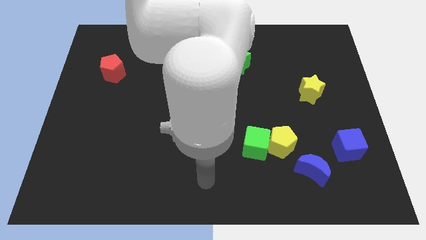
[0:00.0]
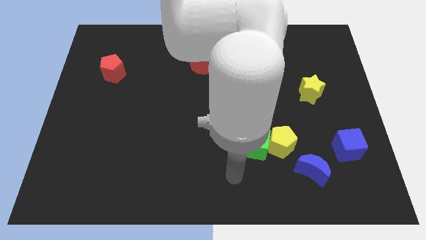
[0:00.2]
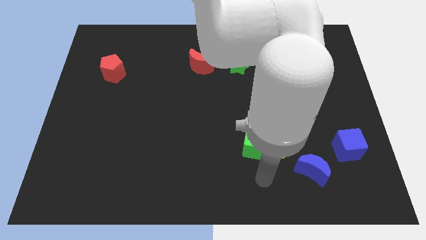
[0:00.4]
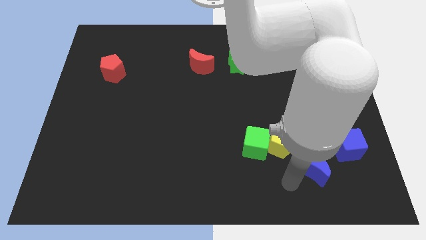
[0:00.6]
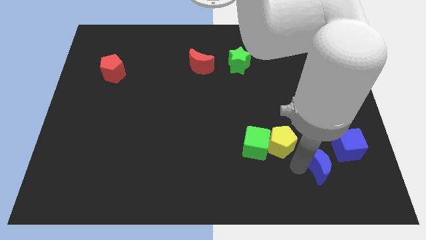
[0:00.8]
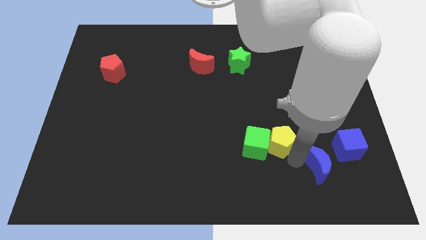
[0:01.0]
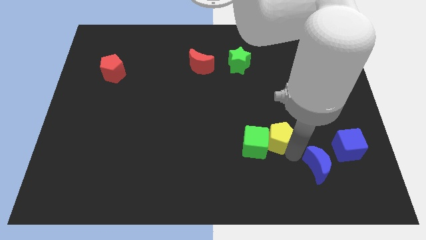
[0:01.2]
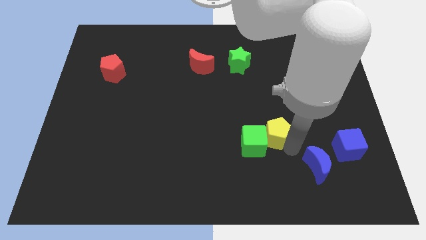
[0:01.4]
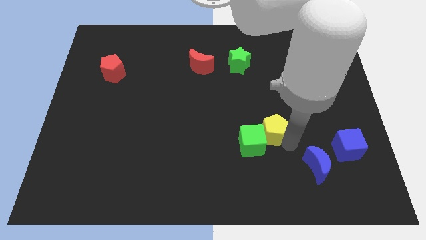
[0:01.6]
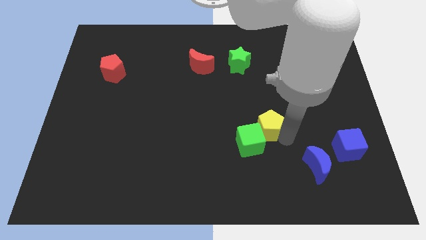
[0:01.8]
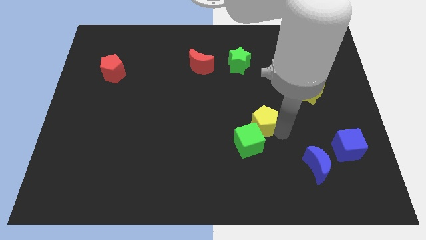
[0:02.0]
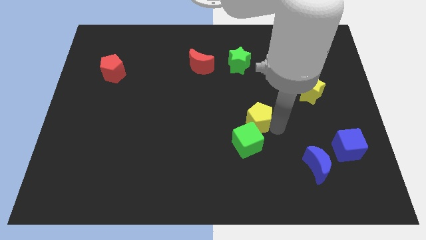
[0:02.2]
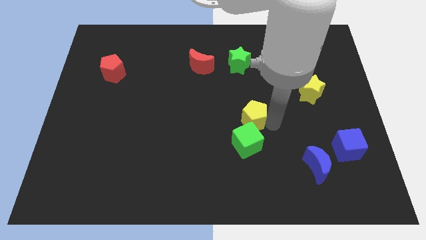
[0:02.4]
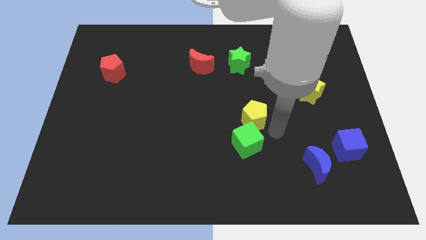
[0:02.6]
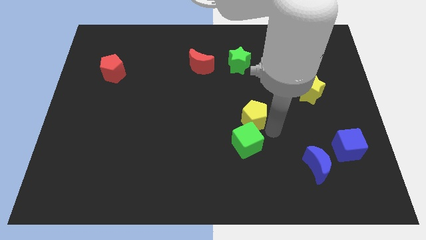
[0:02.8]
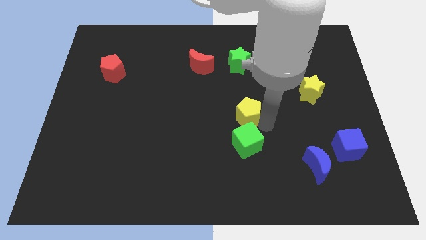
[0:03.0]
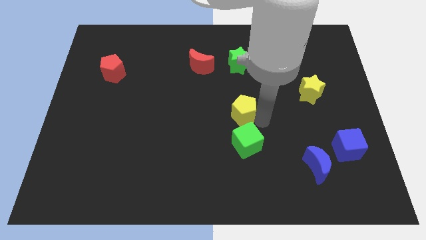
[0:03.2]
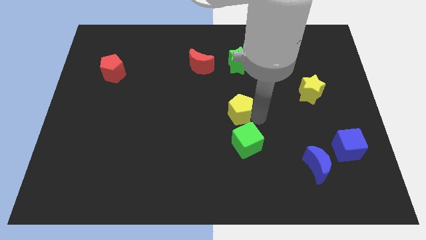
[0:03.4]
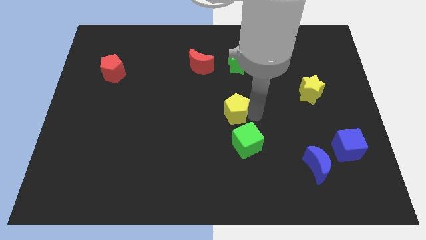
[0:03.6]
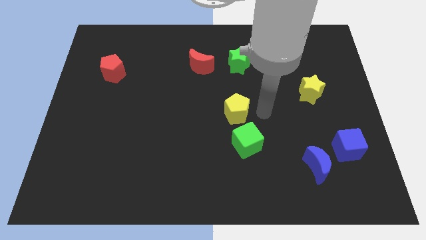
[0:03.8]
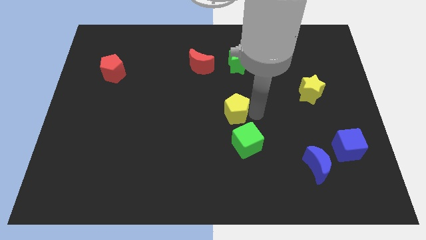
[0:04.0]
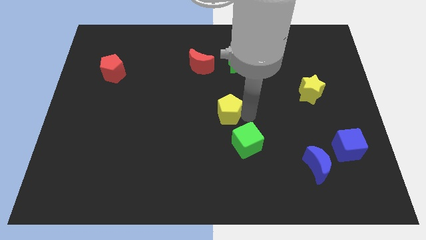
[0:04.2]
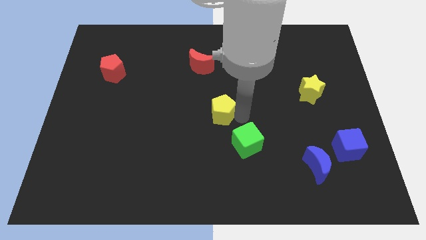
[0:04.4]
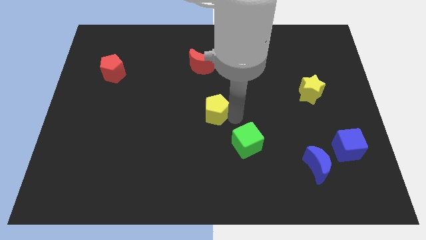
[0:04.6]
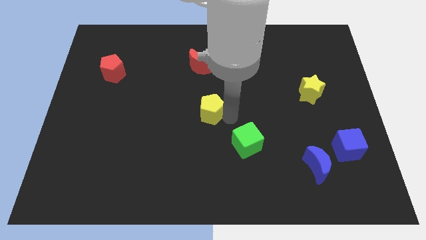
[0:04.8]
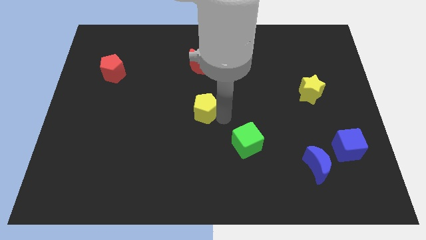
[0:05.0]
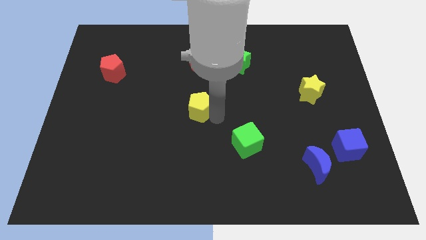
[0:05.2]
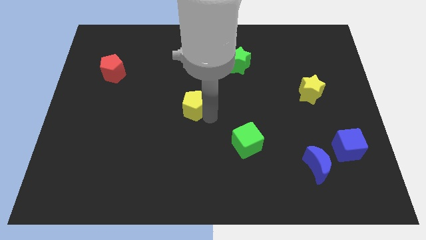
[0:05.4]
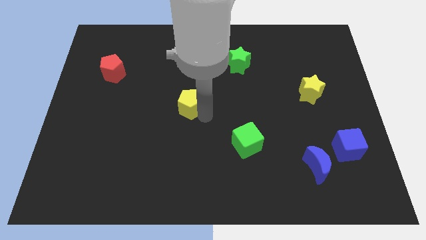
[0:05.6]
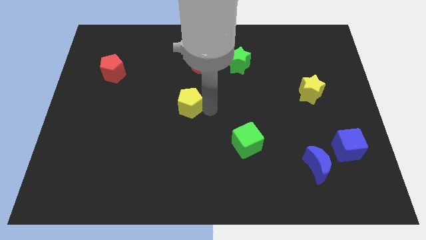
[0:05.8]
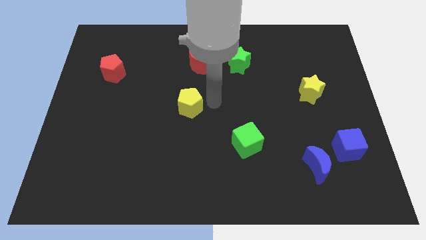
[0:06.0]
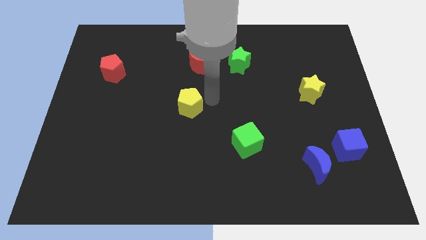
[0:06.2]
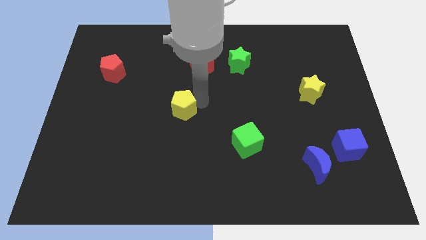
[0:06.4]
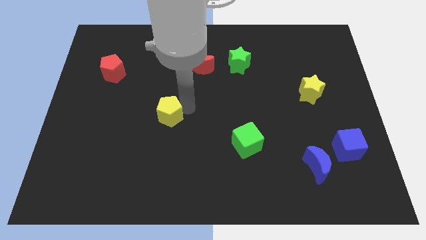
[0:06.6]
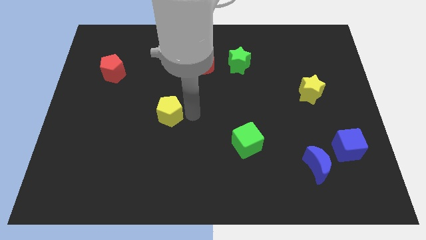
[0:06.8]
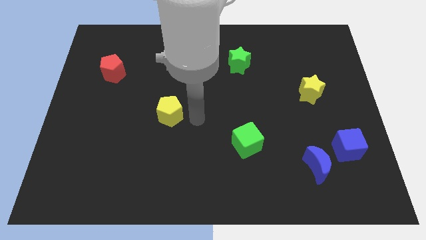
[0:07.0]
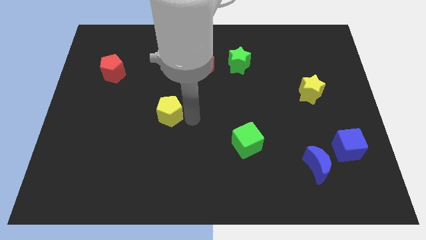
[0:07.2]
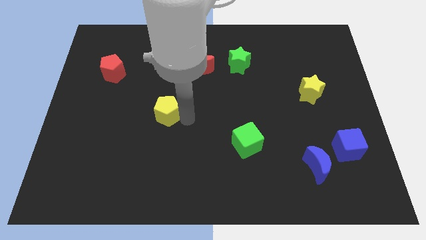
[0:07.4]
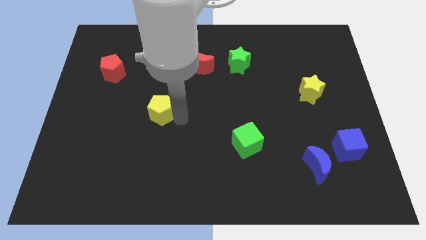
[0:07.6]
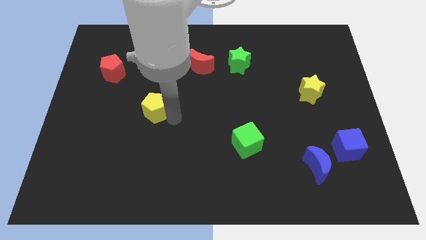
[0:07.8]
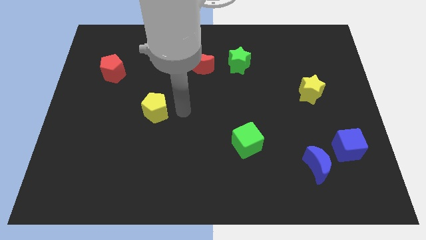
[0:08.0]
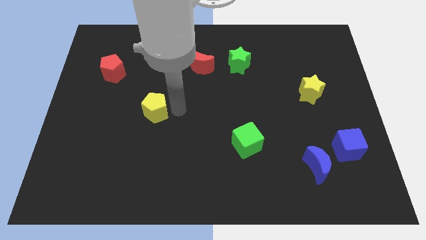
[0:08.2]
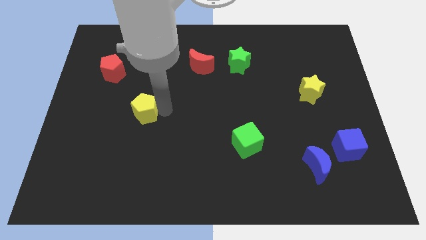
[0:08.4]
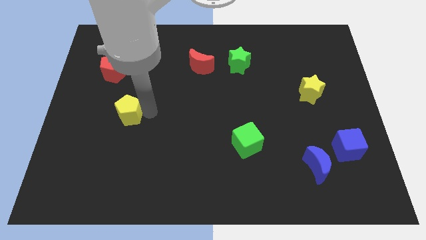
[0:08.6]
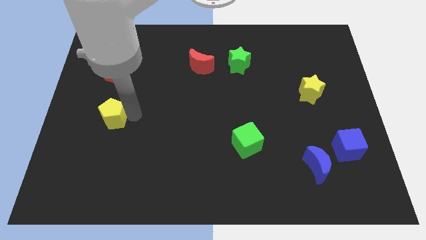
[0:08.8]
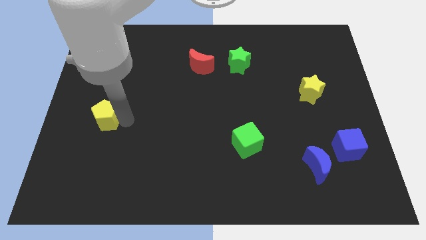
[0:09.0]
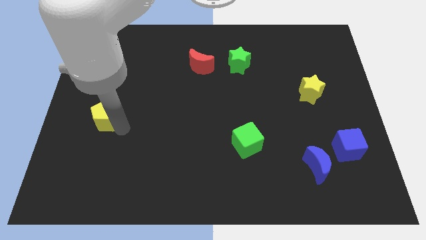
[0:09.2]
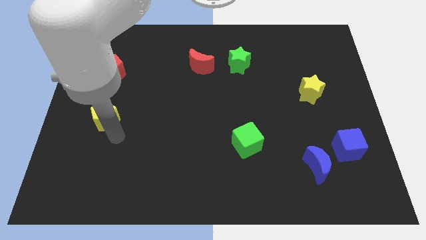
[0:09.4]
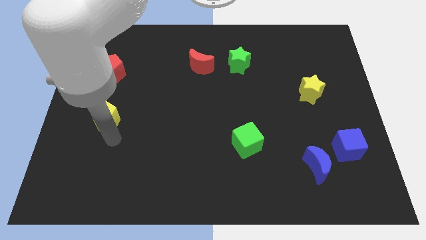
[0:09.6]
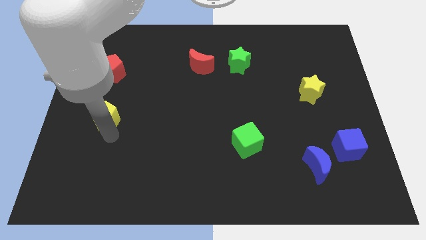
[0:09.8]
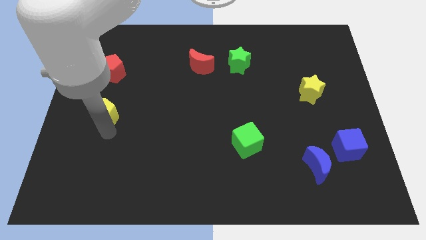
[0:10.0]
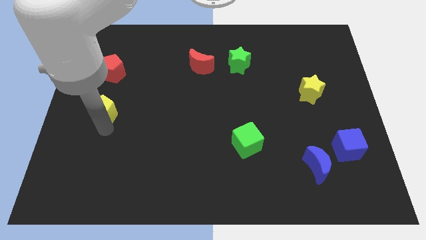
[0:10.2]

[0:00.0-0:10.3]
put the yellow pentagon to the left side

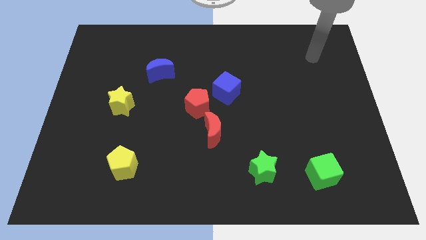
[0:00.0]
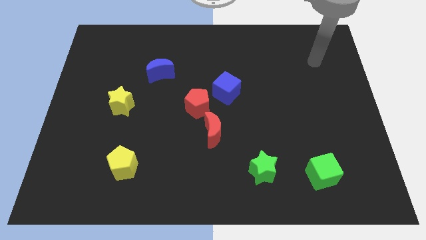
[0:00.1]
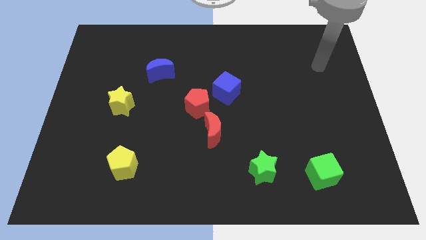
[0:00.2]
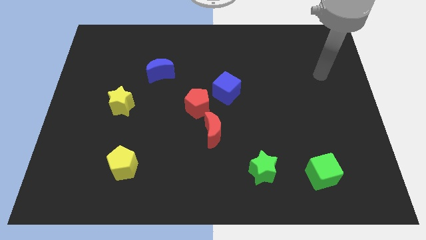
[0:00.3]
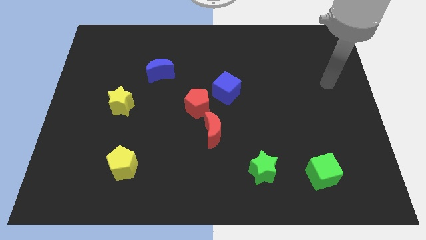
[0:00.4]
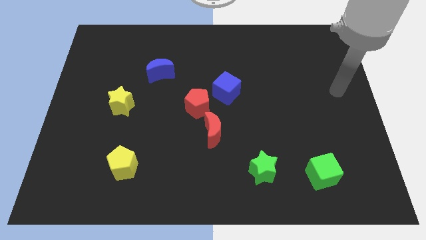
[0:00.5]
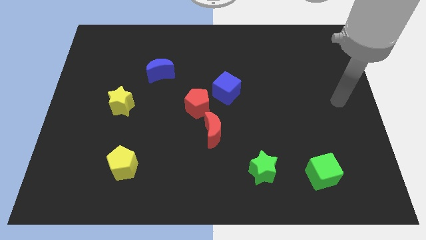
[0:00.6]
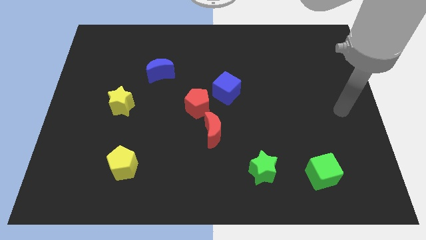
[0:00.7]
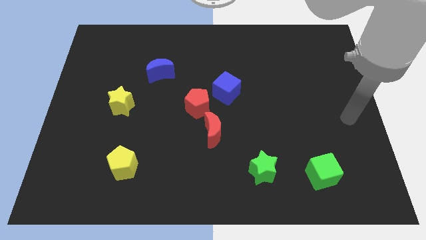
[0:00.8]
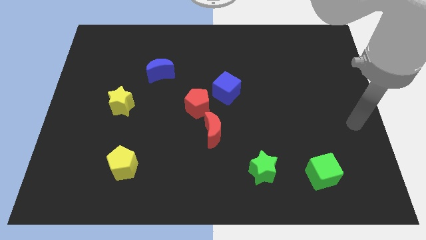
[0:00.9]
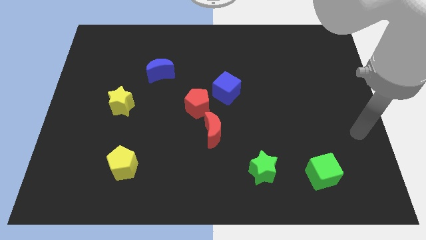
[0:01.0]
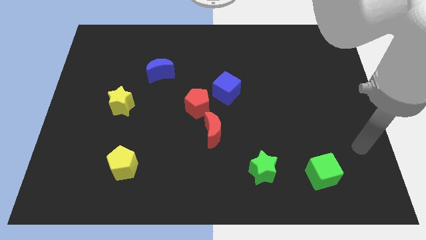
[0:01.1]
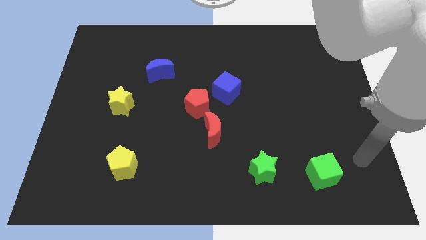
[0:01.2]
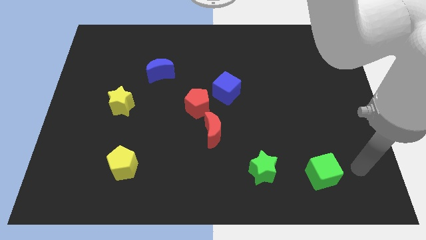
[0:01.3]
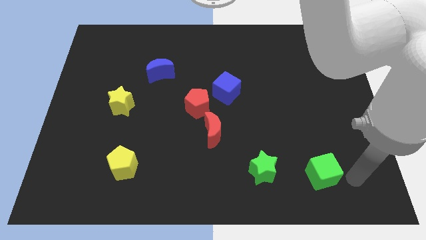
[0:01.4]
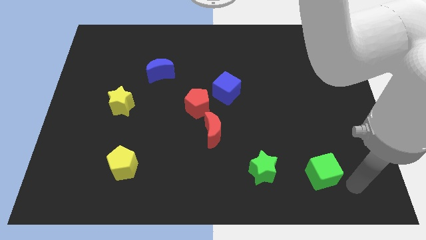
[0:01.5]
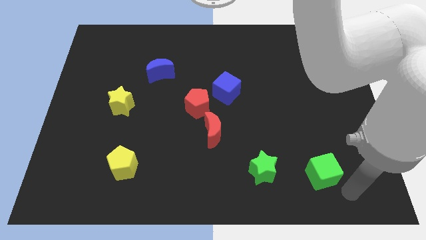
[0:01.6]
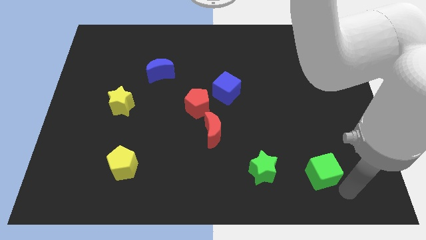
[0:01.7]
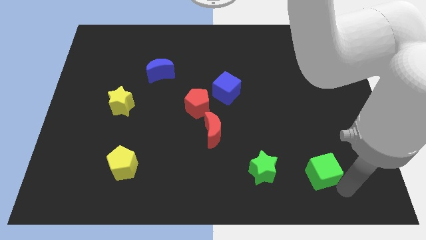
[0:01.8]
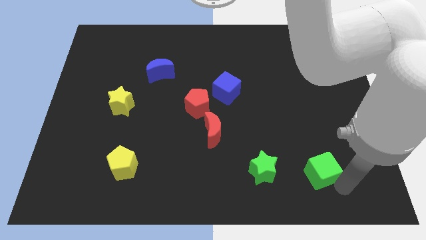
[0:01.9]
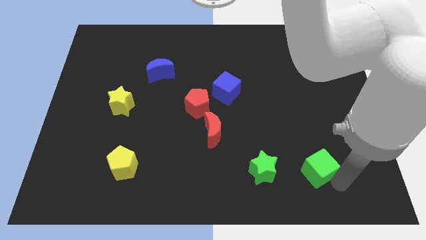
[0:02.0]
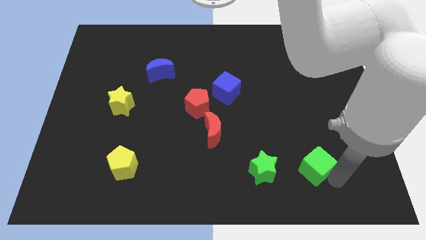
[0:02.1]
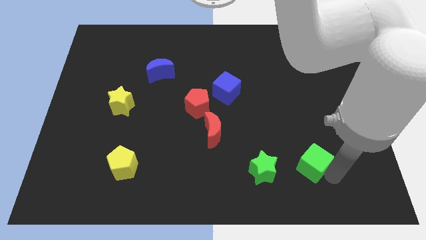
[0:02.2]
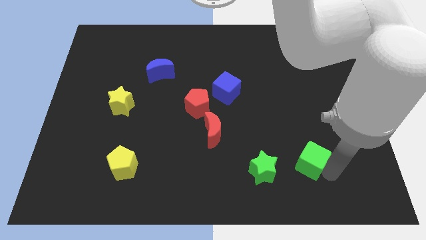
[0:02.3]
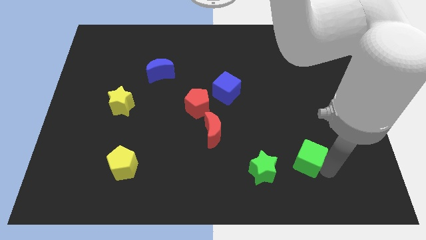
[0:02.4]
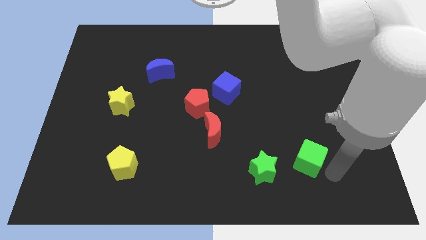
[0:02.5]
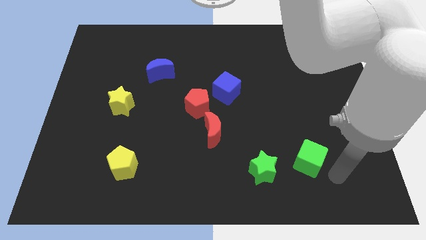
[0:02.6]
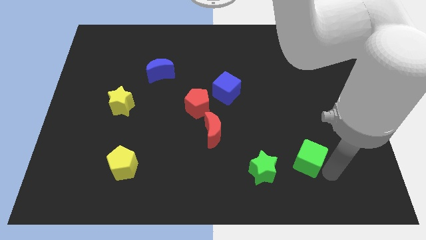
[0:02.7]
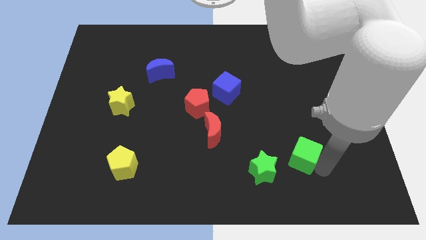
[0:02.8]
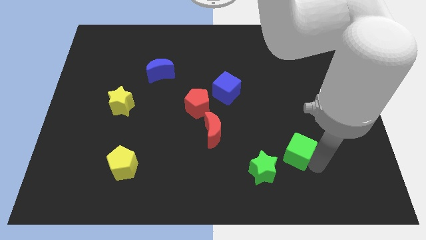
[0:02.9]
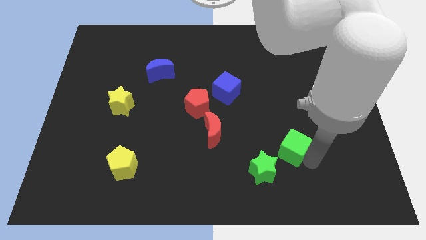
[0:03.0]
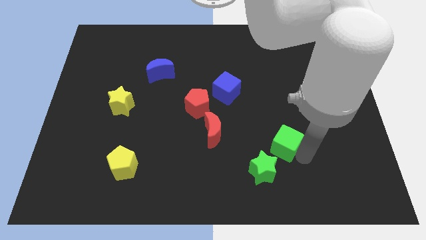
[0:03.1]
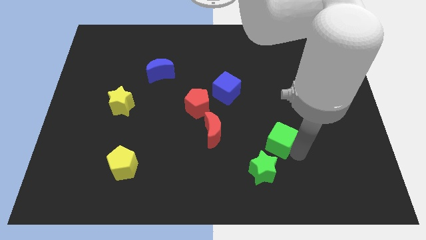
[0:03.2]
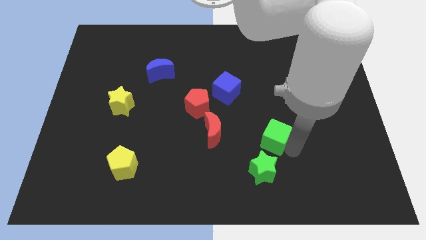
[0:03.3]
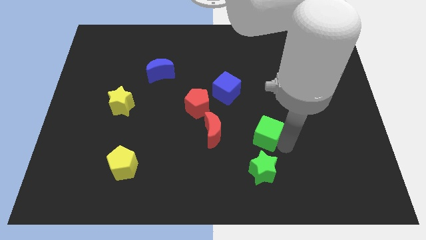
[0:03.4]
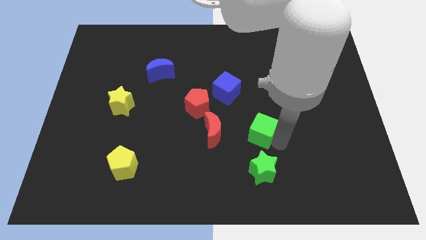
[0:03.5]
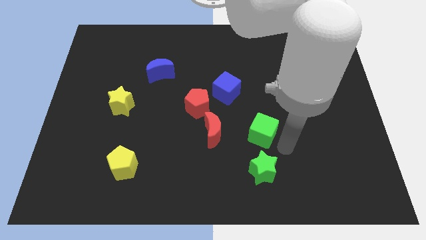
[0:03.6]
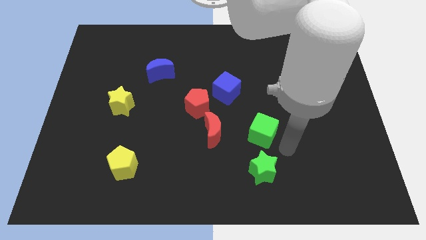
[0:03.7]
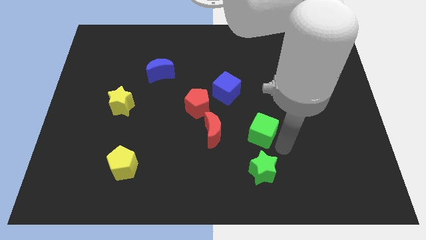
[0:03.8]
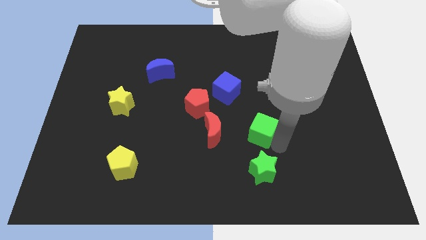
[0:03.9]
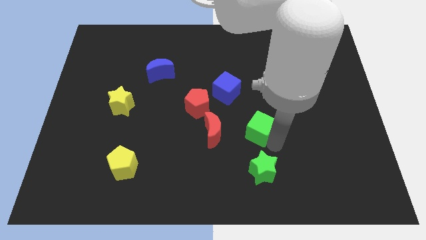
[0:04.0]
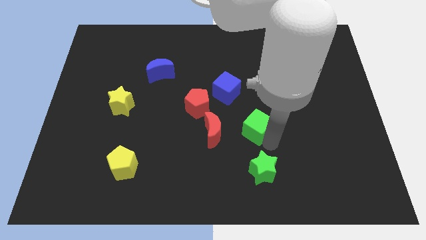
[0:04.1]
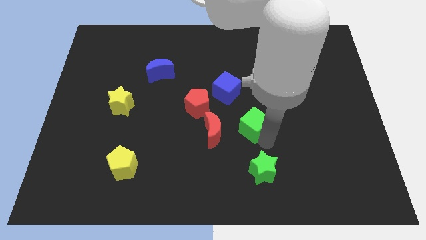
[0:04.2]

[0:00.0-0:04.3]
move the green cube to the middle of the board
